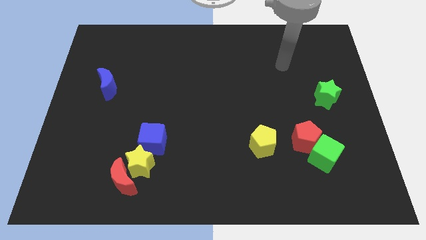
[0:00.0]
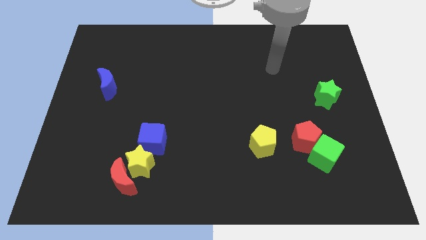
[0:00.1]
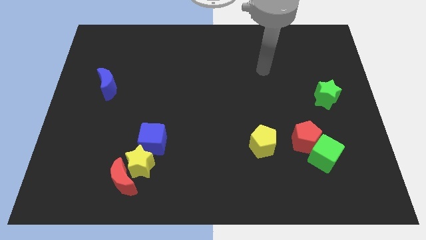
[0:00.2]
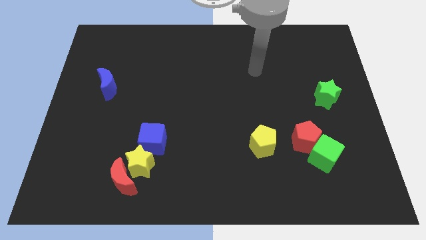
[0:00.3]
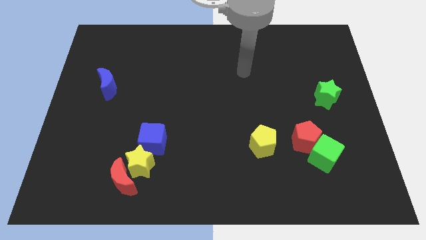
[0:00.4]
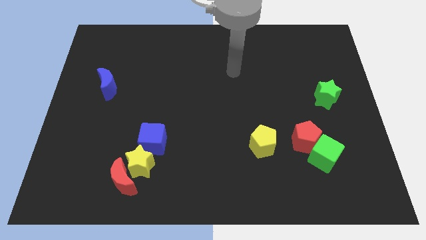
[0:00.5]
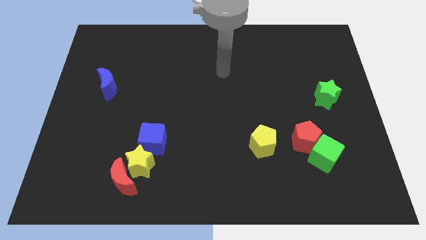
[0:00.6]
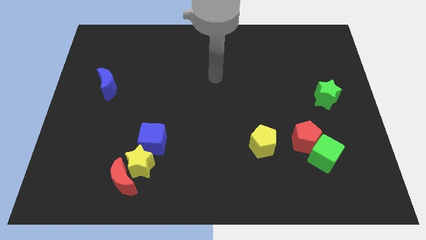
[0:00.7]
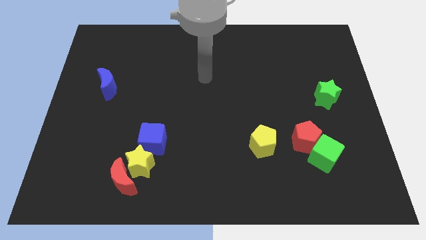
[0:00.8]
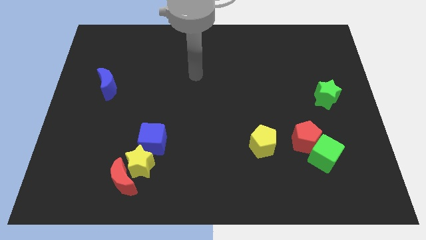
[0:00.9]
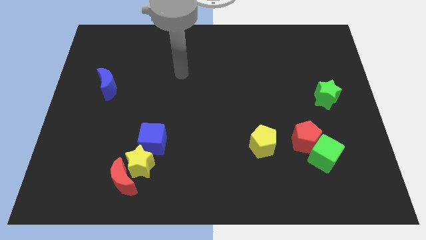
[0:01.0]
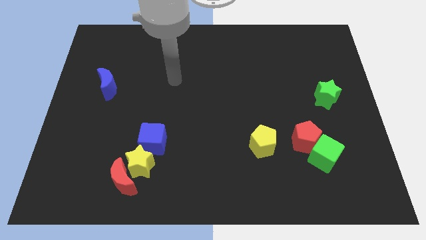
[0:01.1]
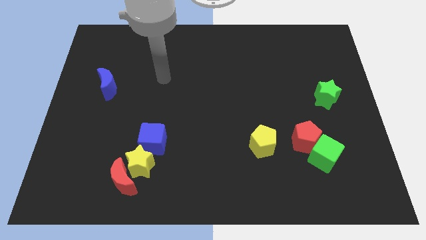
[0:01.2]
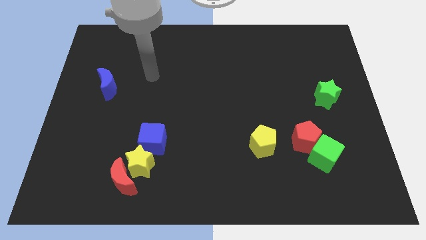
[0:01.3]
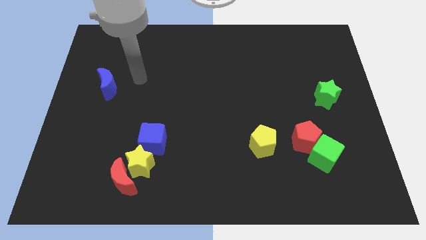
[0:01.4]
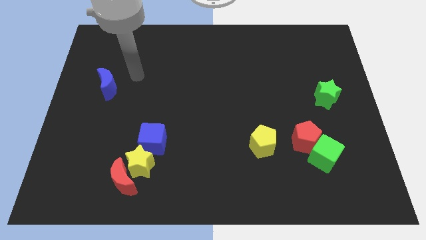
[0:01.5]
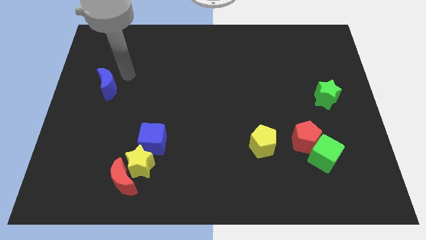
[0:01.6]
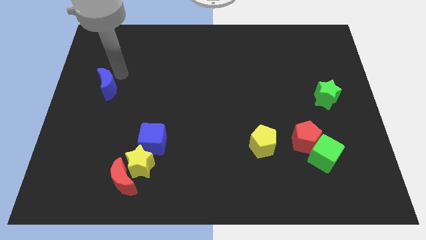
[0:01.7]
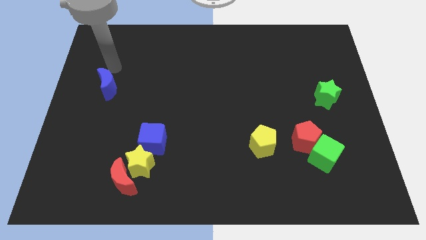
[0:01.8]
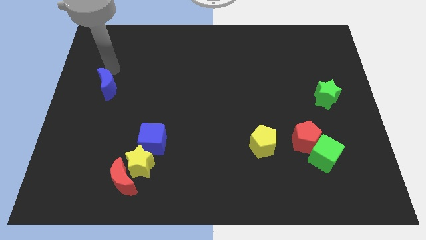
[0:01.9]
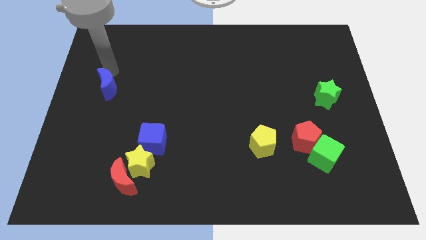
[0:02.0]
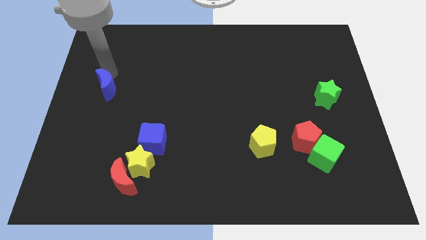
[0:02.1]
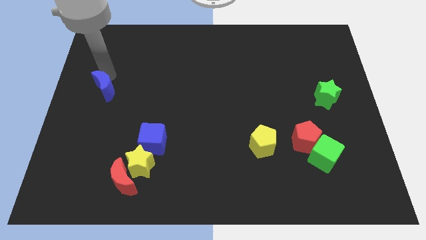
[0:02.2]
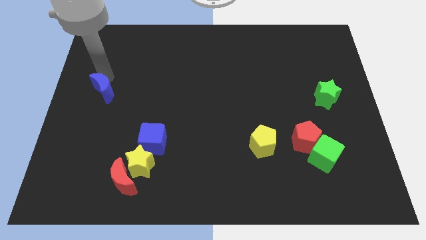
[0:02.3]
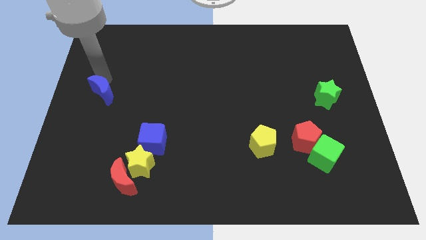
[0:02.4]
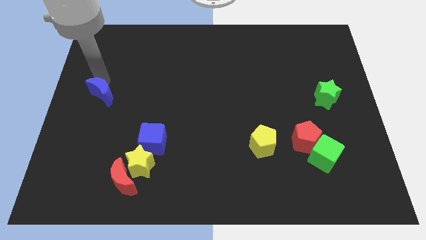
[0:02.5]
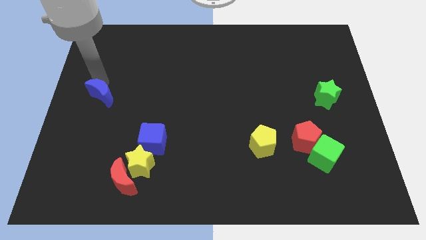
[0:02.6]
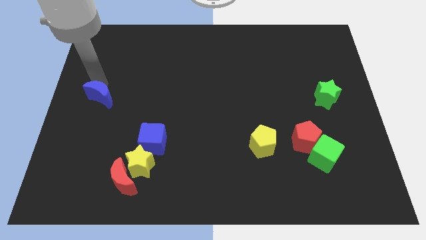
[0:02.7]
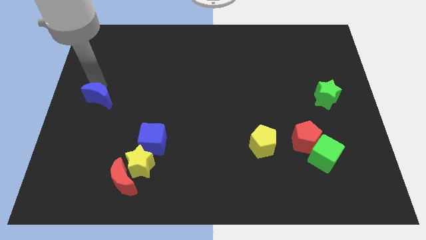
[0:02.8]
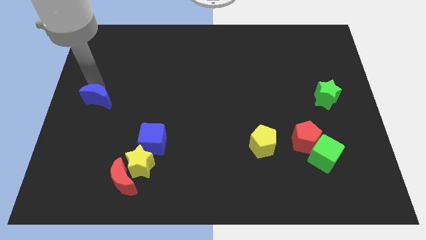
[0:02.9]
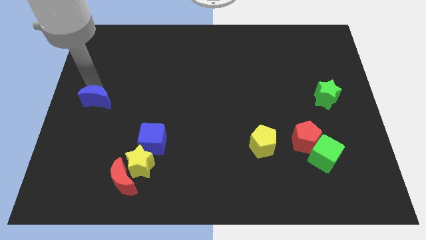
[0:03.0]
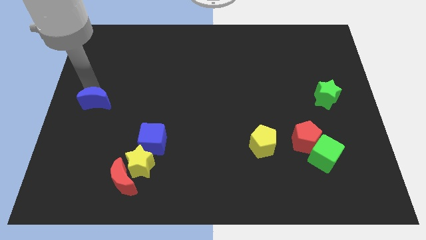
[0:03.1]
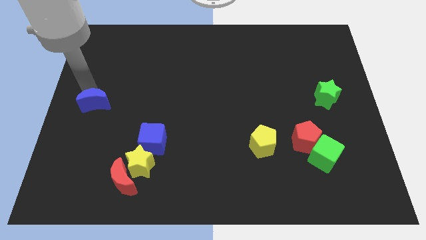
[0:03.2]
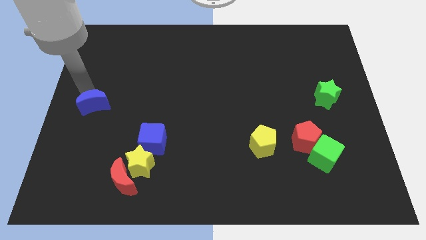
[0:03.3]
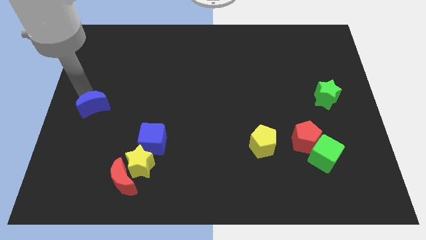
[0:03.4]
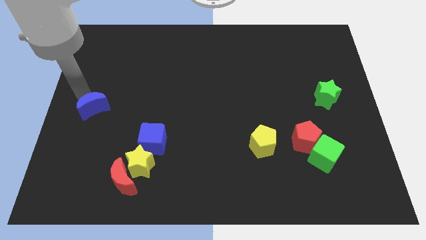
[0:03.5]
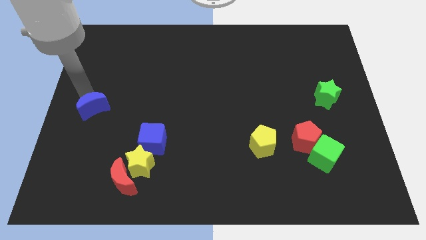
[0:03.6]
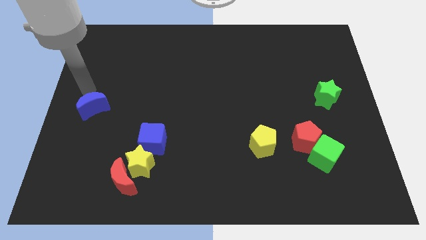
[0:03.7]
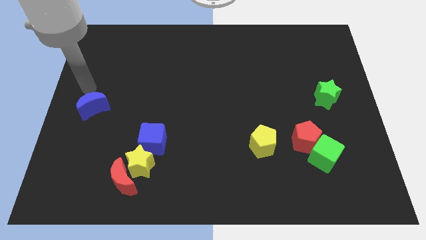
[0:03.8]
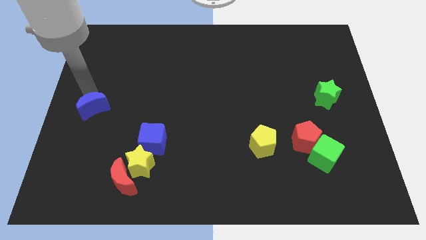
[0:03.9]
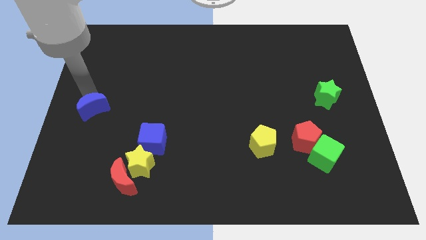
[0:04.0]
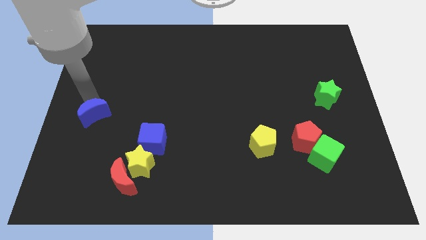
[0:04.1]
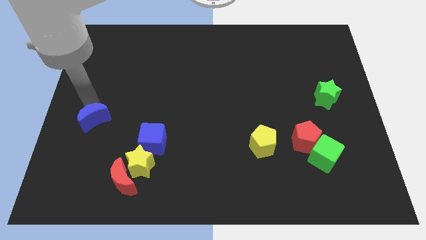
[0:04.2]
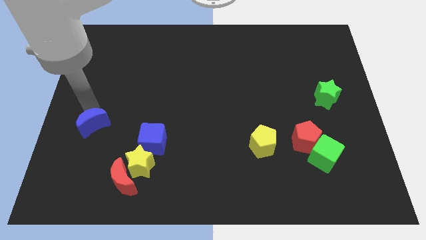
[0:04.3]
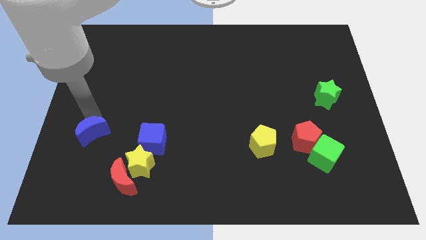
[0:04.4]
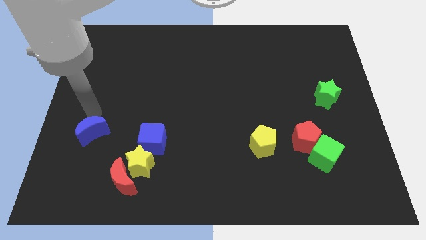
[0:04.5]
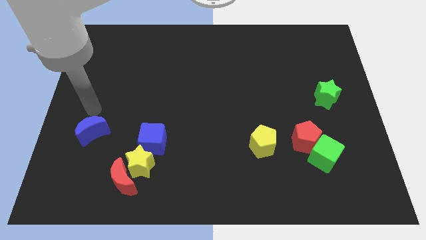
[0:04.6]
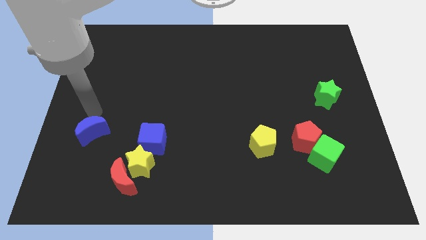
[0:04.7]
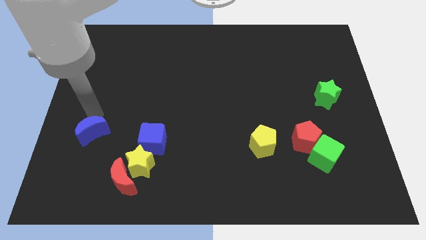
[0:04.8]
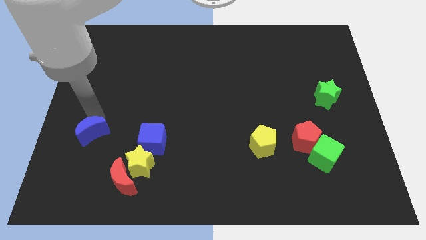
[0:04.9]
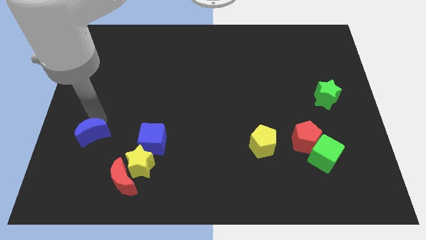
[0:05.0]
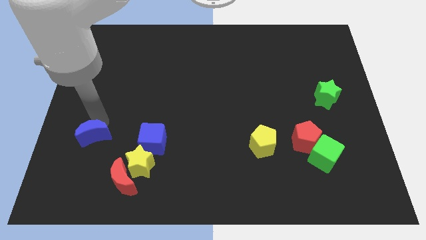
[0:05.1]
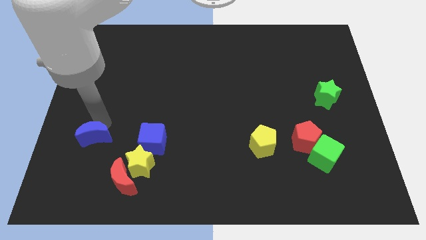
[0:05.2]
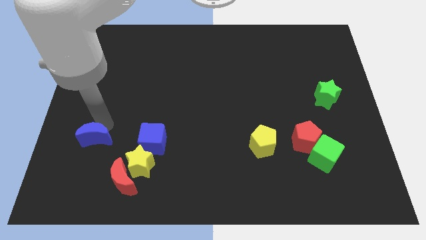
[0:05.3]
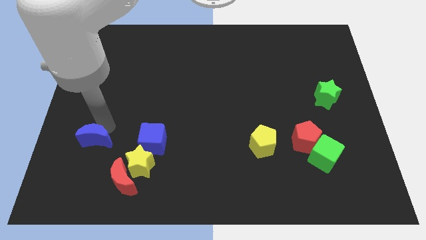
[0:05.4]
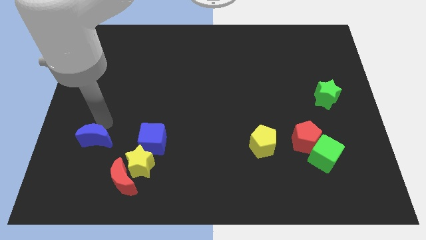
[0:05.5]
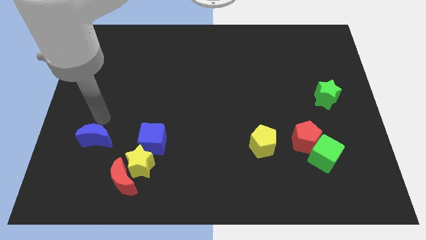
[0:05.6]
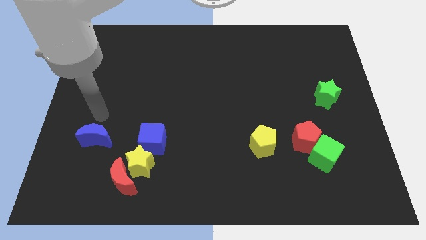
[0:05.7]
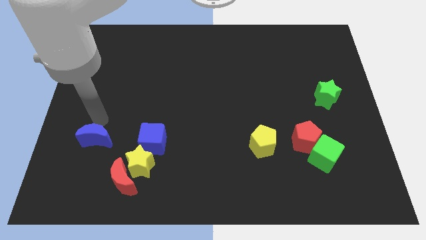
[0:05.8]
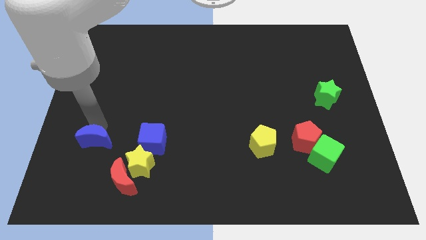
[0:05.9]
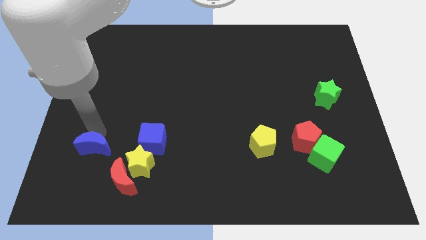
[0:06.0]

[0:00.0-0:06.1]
slide the blue moon to the left side of the yellow star
